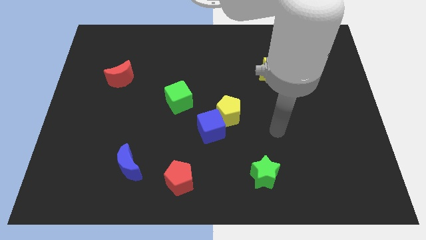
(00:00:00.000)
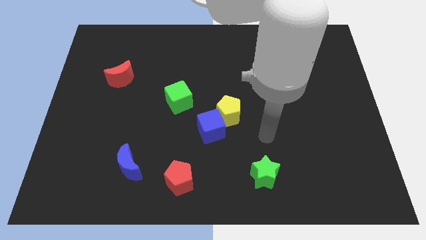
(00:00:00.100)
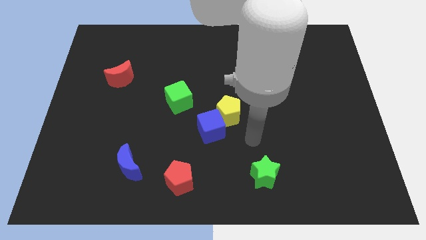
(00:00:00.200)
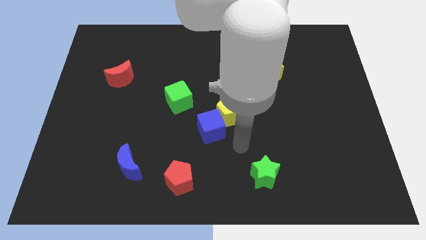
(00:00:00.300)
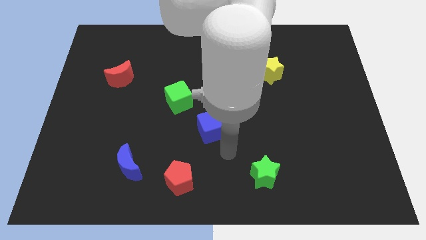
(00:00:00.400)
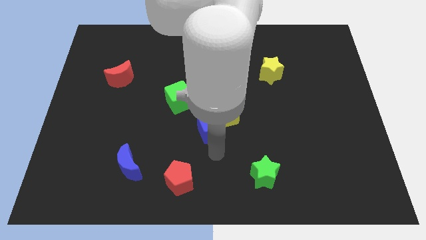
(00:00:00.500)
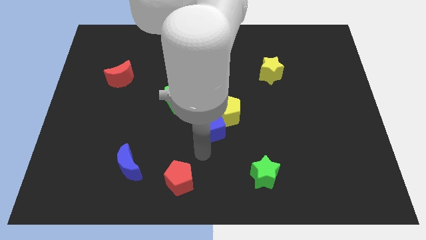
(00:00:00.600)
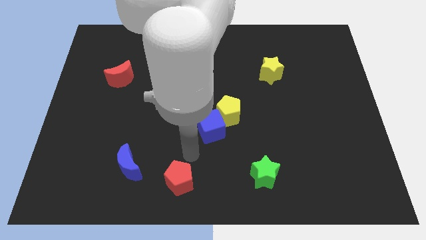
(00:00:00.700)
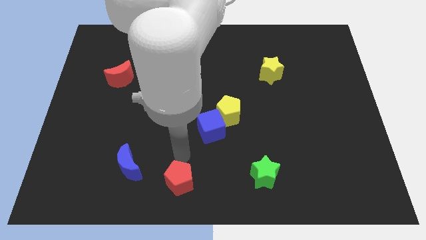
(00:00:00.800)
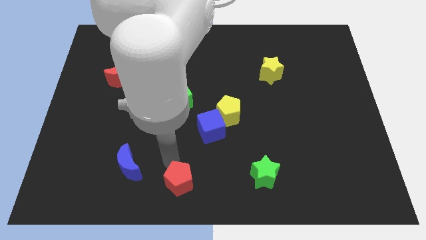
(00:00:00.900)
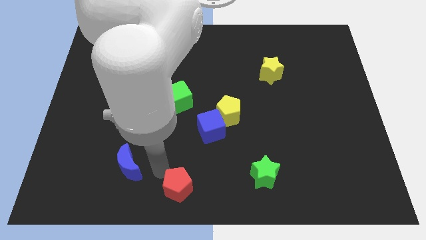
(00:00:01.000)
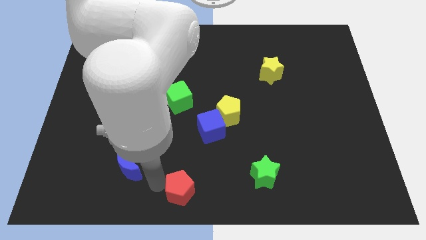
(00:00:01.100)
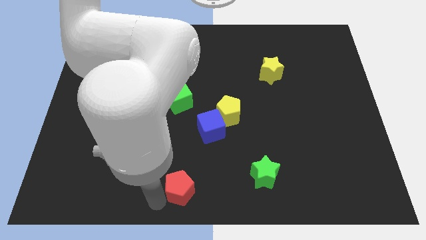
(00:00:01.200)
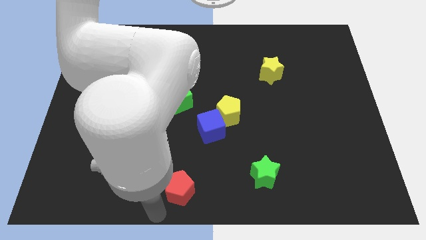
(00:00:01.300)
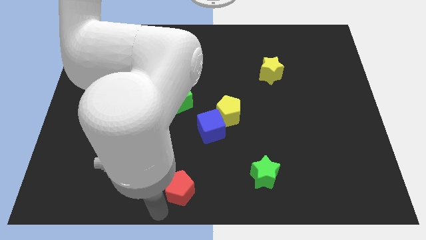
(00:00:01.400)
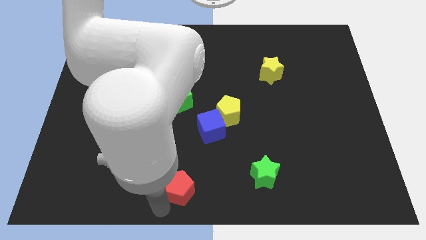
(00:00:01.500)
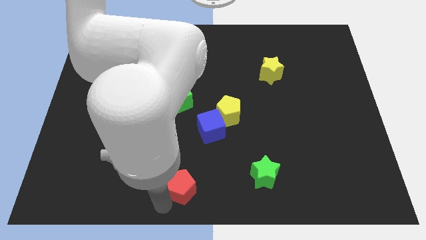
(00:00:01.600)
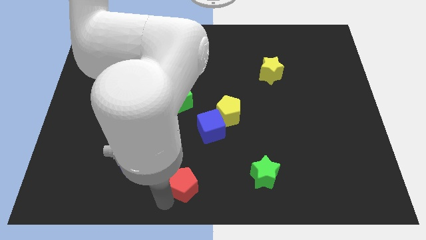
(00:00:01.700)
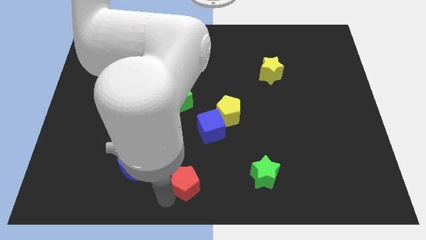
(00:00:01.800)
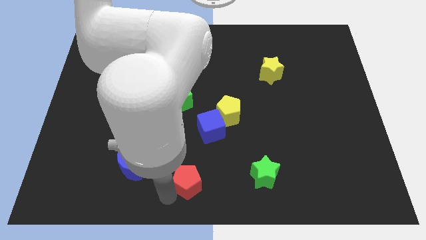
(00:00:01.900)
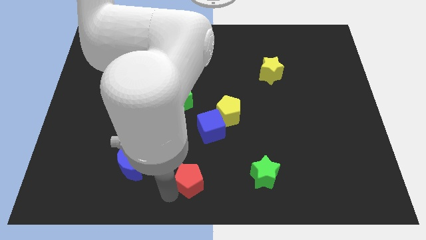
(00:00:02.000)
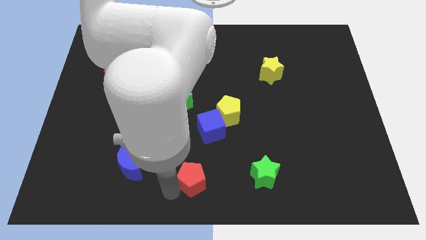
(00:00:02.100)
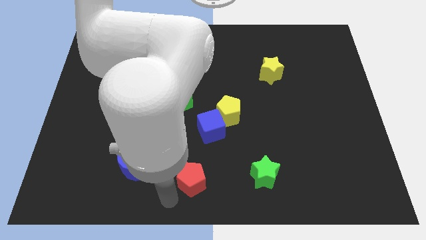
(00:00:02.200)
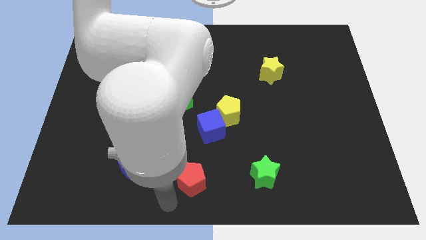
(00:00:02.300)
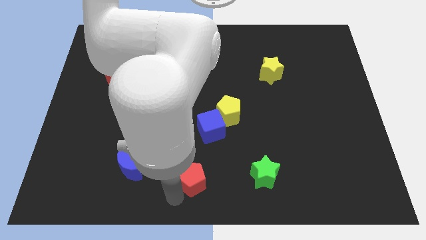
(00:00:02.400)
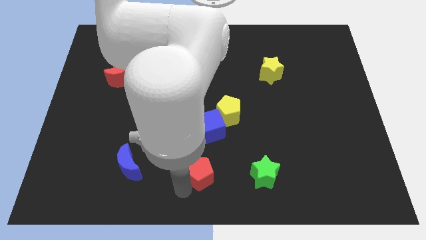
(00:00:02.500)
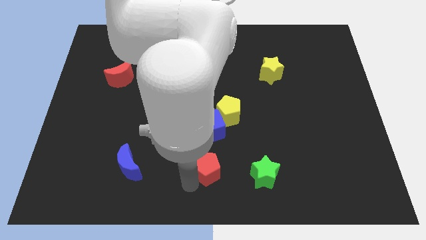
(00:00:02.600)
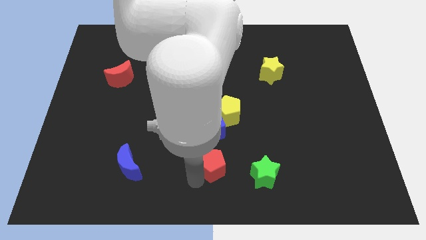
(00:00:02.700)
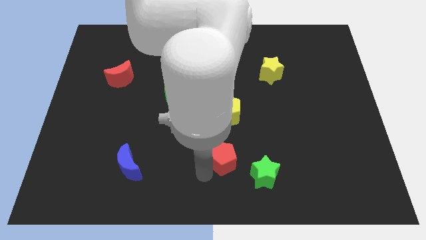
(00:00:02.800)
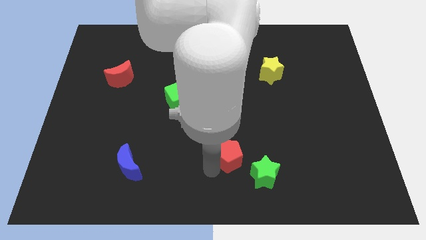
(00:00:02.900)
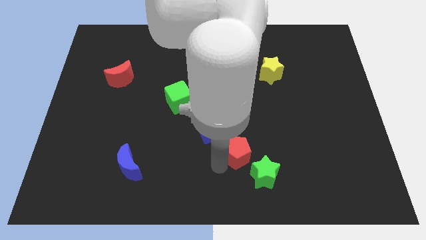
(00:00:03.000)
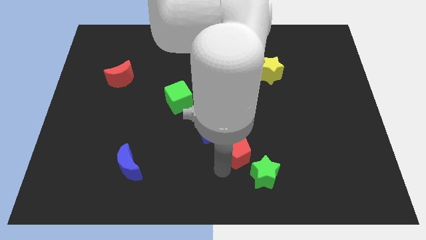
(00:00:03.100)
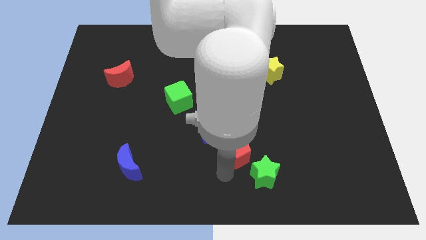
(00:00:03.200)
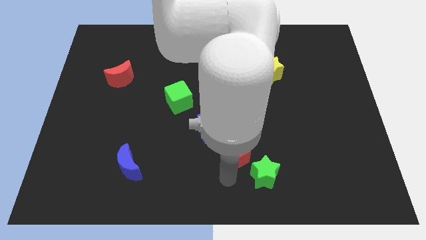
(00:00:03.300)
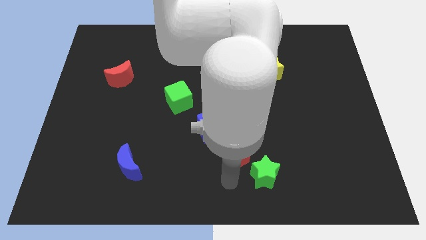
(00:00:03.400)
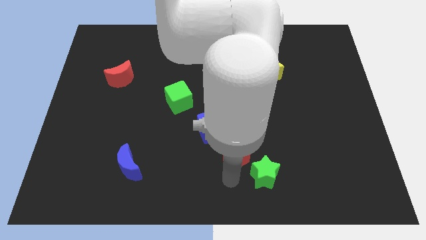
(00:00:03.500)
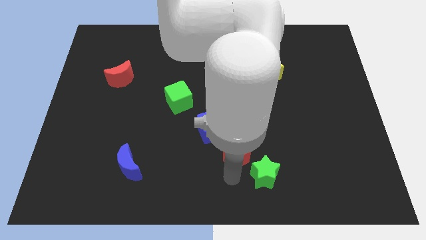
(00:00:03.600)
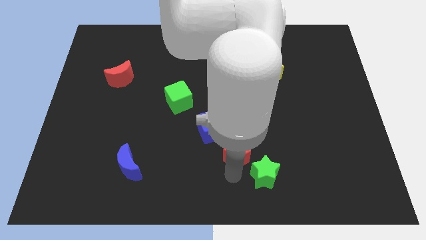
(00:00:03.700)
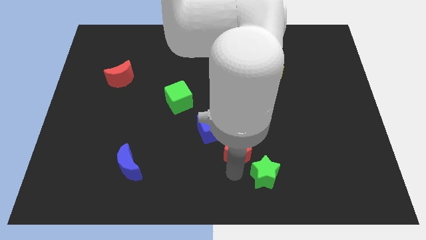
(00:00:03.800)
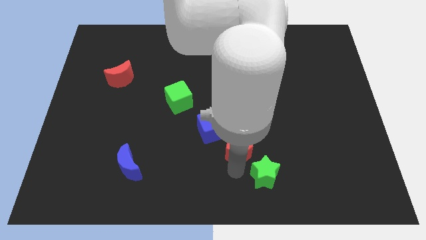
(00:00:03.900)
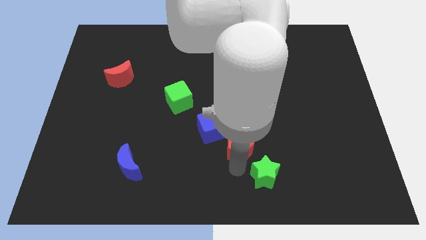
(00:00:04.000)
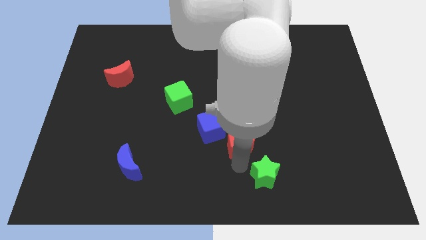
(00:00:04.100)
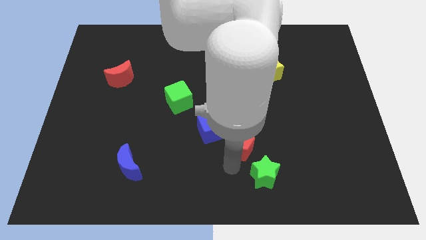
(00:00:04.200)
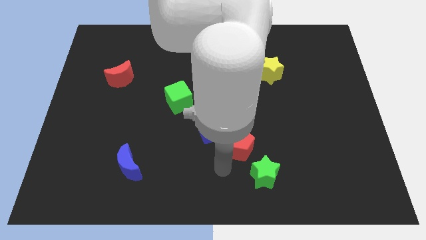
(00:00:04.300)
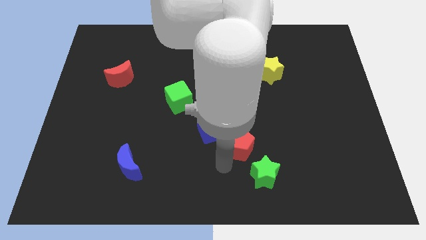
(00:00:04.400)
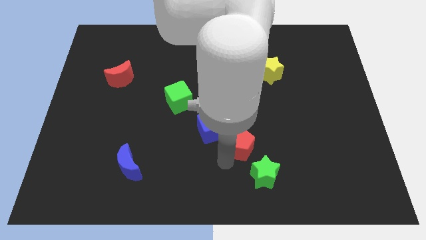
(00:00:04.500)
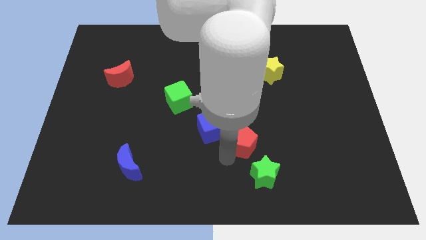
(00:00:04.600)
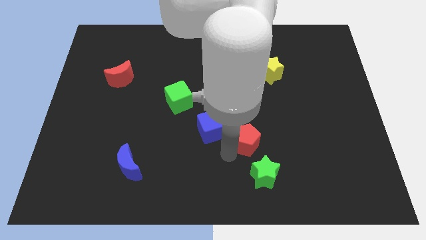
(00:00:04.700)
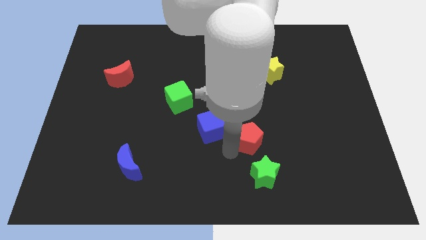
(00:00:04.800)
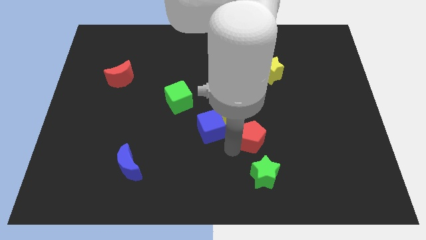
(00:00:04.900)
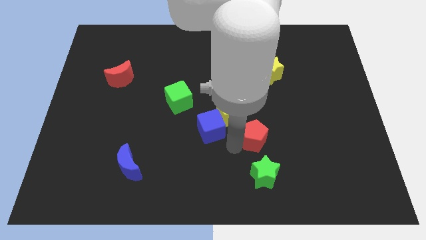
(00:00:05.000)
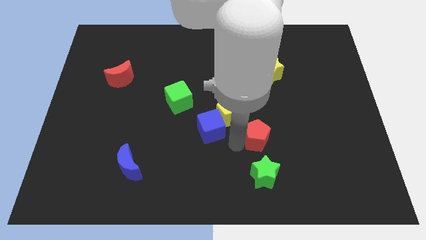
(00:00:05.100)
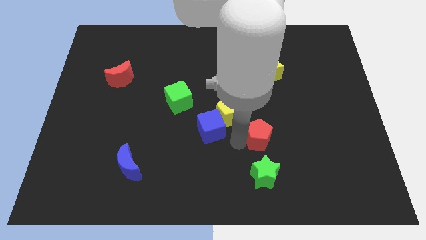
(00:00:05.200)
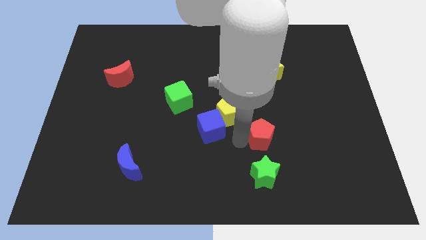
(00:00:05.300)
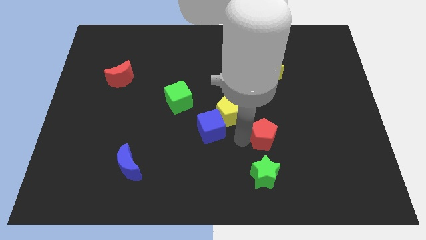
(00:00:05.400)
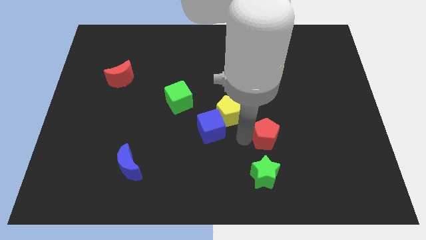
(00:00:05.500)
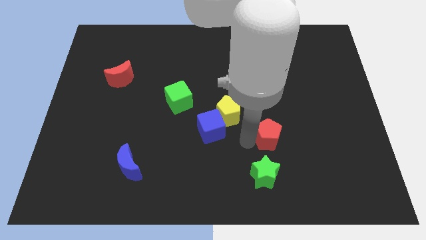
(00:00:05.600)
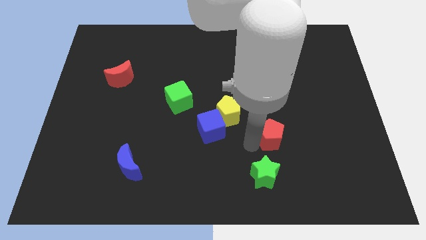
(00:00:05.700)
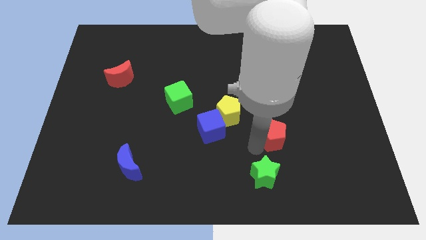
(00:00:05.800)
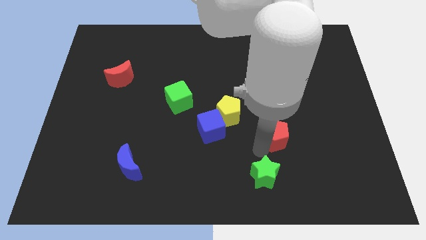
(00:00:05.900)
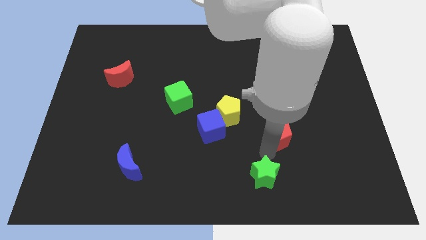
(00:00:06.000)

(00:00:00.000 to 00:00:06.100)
slide the red pentagon up and right diagonally

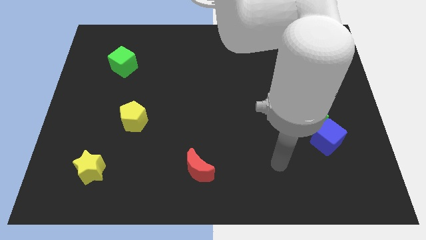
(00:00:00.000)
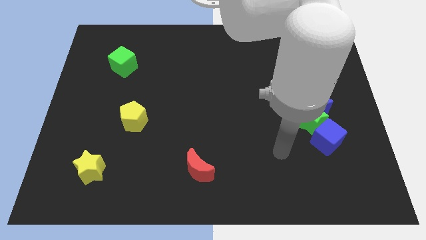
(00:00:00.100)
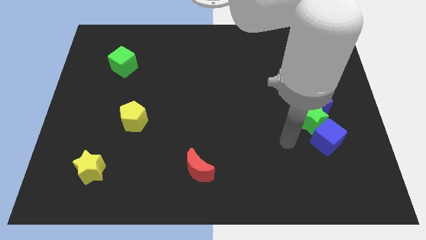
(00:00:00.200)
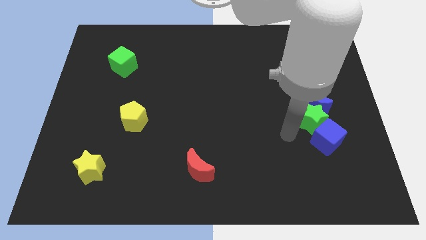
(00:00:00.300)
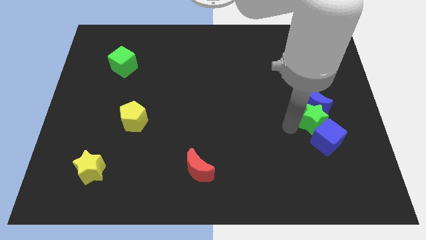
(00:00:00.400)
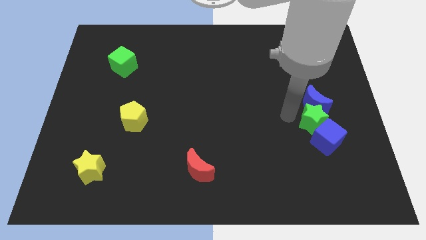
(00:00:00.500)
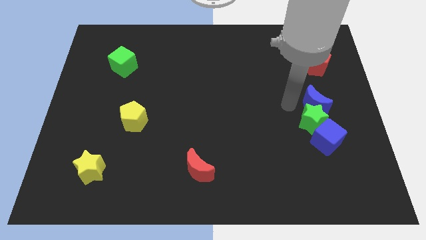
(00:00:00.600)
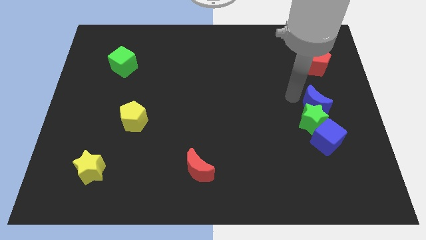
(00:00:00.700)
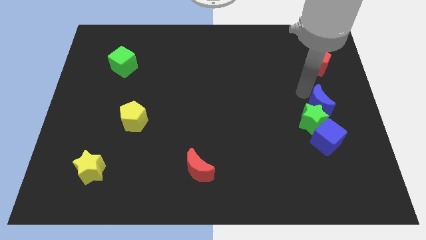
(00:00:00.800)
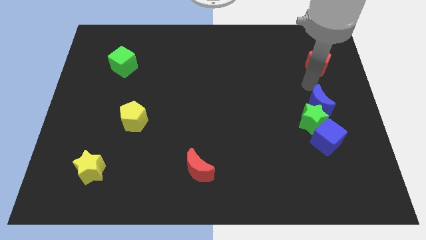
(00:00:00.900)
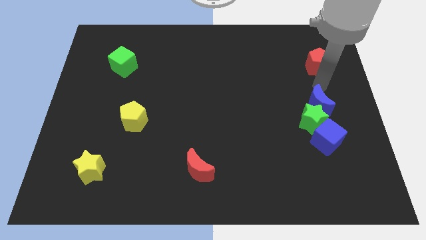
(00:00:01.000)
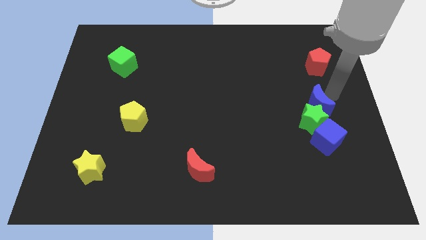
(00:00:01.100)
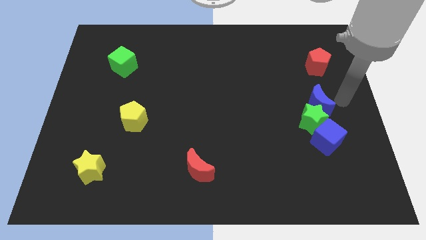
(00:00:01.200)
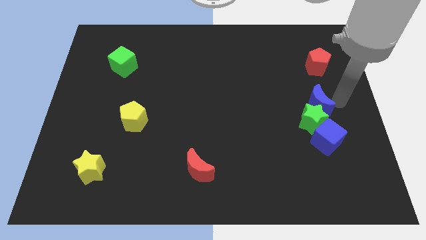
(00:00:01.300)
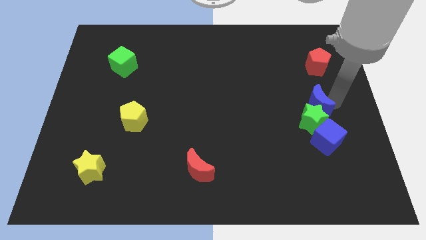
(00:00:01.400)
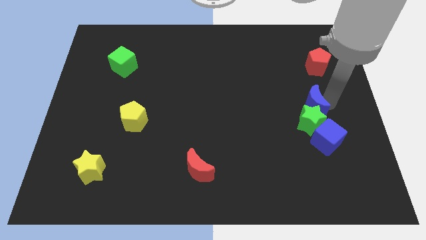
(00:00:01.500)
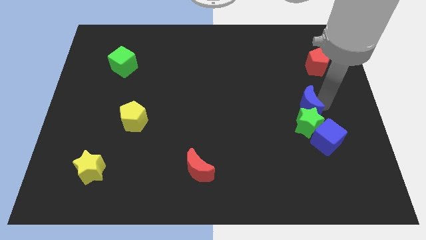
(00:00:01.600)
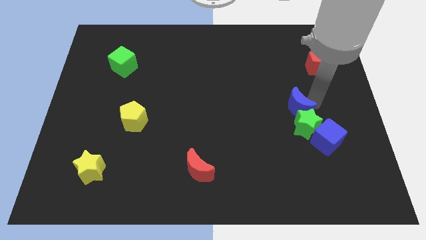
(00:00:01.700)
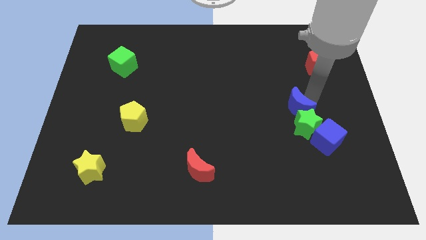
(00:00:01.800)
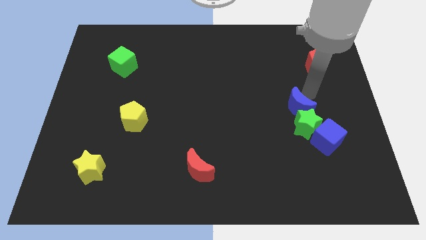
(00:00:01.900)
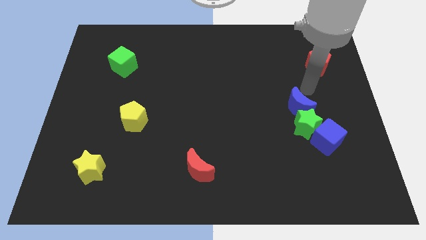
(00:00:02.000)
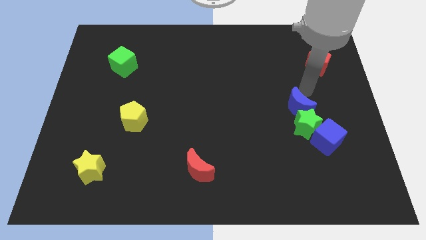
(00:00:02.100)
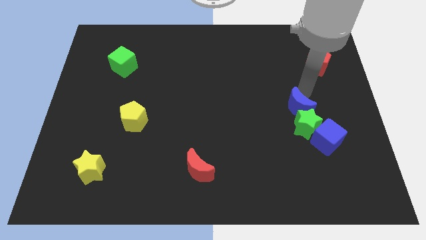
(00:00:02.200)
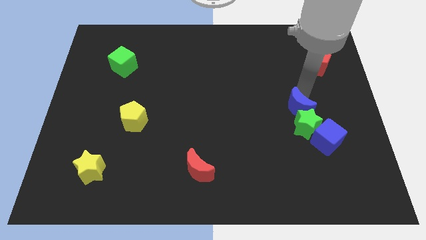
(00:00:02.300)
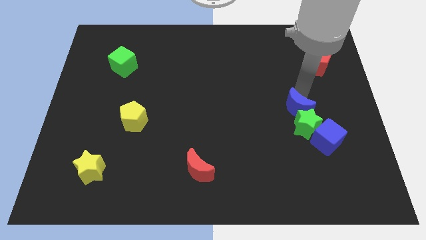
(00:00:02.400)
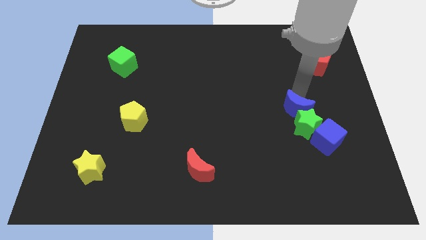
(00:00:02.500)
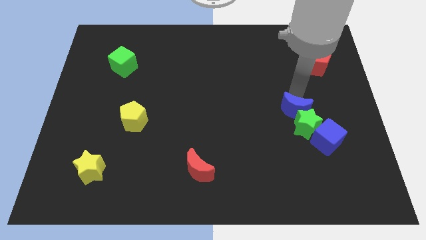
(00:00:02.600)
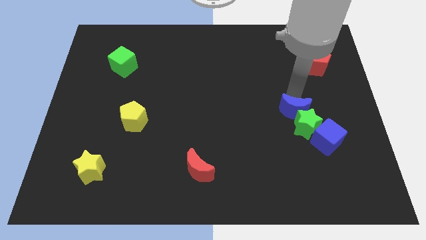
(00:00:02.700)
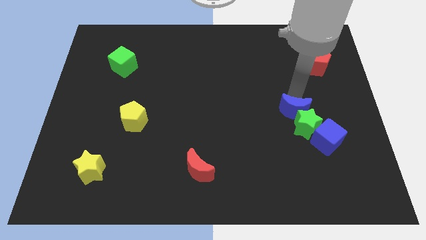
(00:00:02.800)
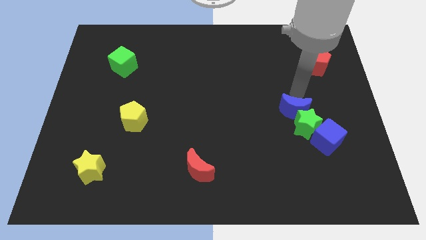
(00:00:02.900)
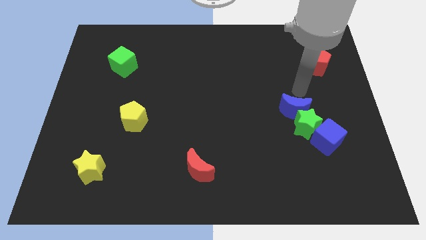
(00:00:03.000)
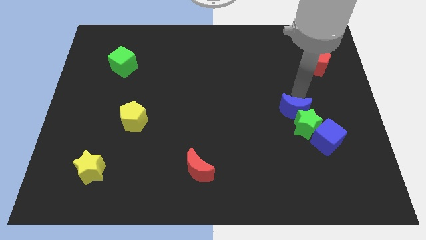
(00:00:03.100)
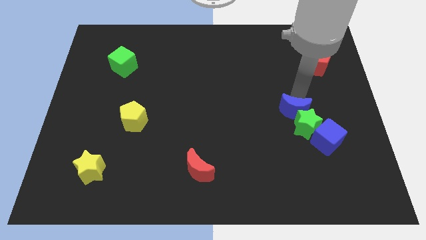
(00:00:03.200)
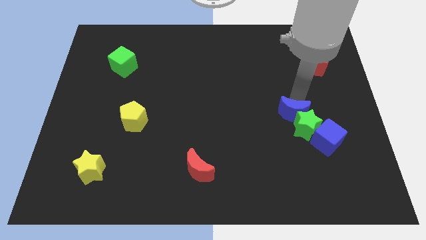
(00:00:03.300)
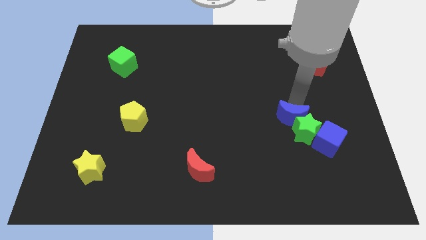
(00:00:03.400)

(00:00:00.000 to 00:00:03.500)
push the blue moon somewhat diagonally down and to the left
